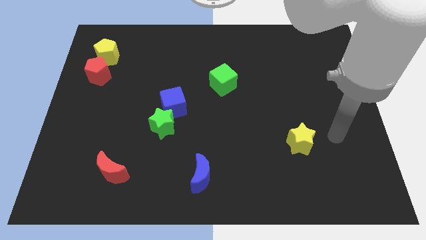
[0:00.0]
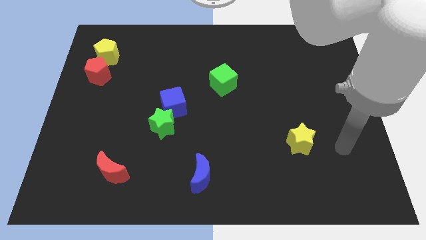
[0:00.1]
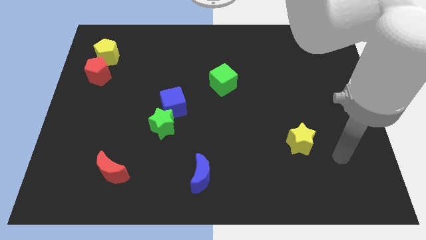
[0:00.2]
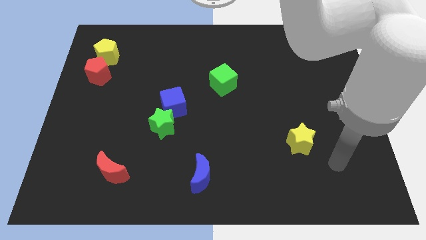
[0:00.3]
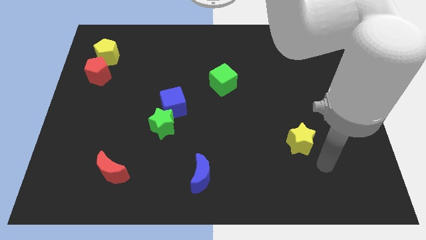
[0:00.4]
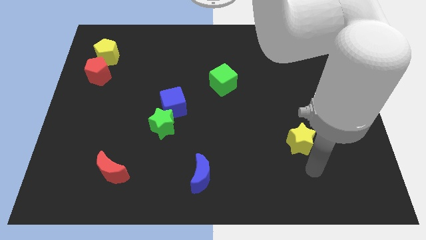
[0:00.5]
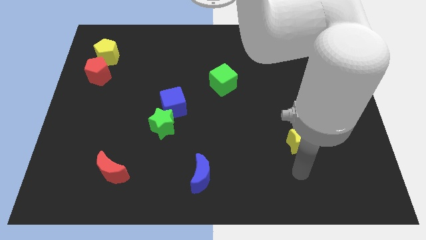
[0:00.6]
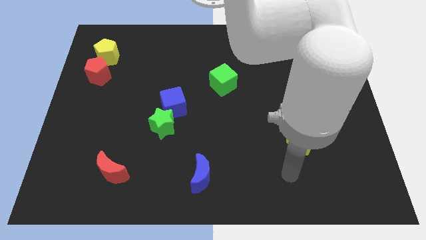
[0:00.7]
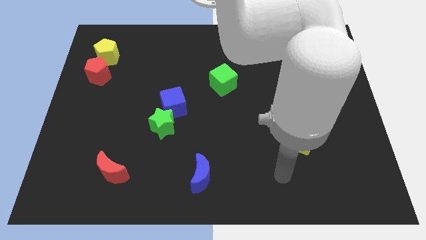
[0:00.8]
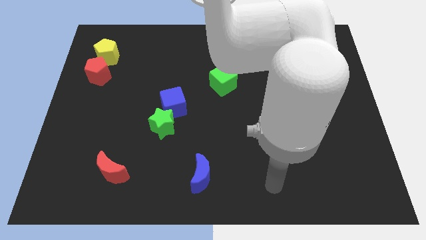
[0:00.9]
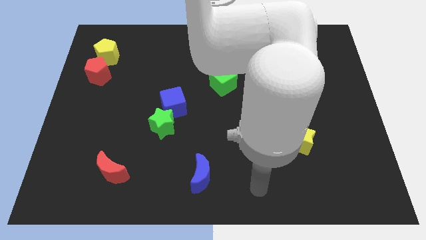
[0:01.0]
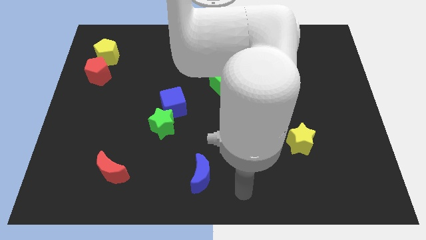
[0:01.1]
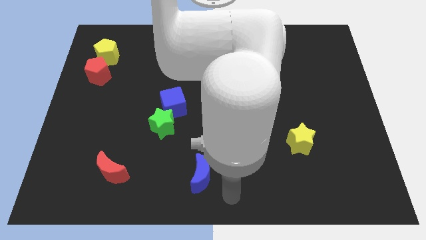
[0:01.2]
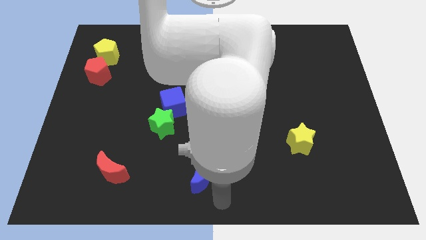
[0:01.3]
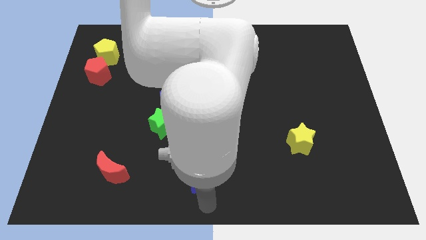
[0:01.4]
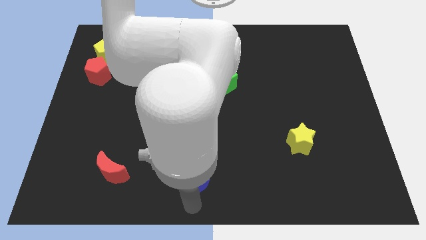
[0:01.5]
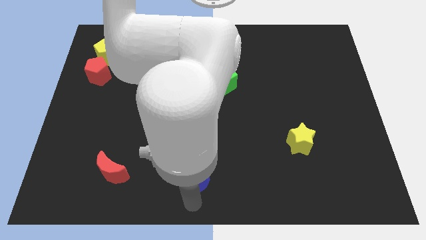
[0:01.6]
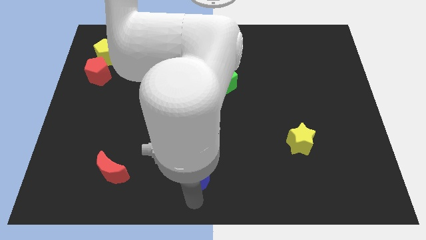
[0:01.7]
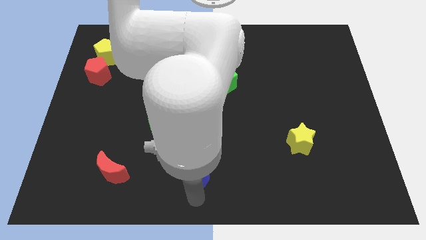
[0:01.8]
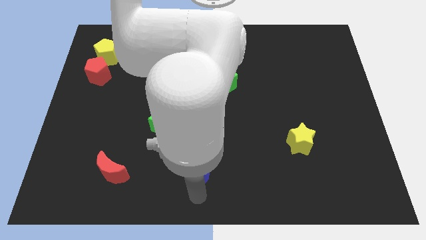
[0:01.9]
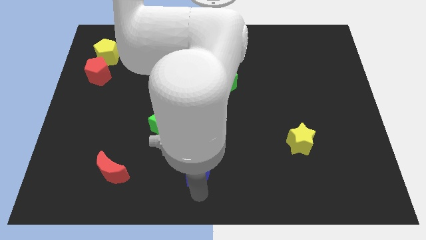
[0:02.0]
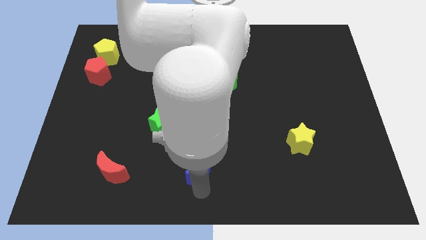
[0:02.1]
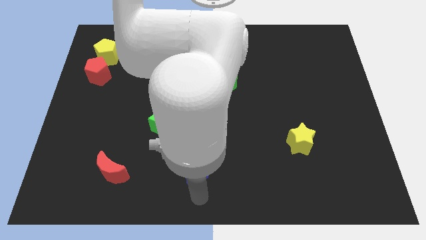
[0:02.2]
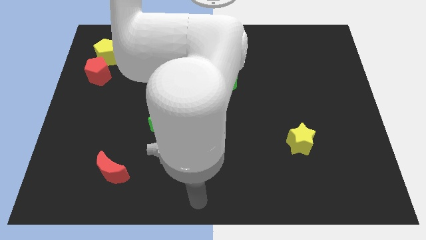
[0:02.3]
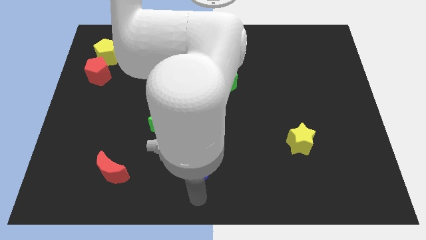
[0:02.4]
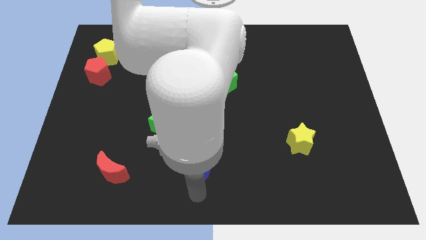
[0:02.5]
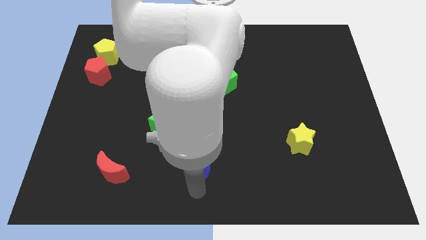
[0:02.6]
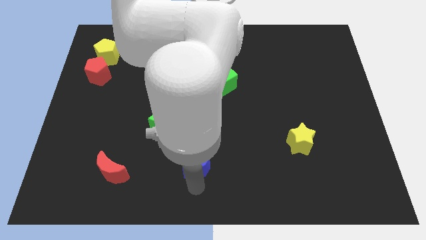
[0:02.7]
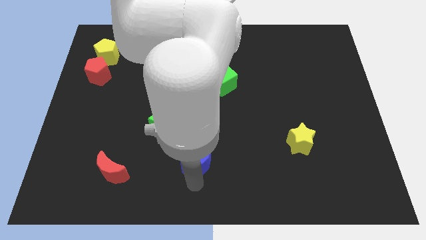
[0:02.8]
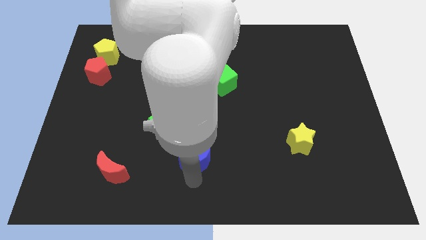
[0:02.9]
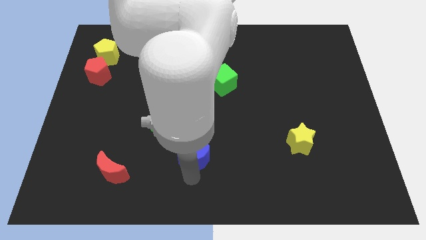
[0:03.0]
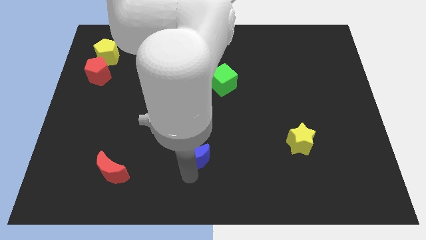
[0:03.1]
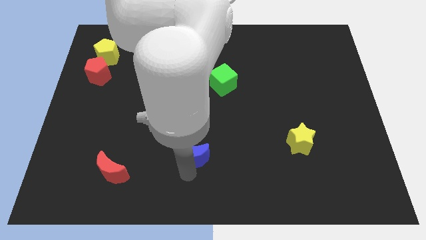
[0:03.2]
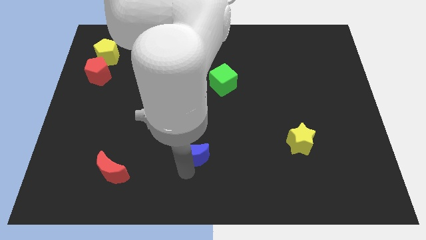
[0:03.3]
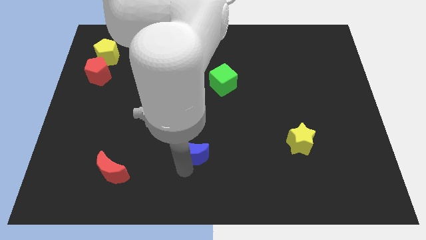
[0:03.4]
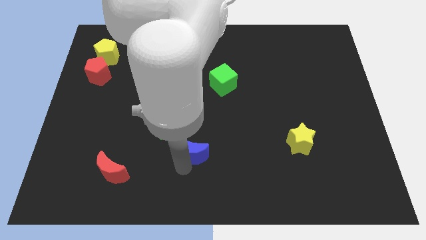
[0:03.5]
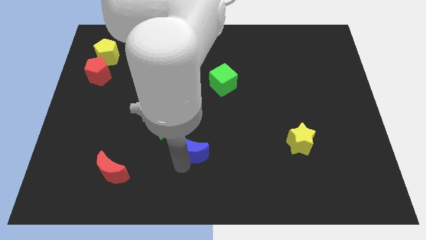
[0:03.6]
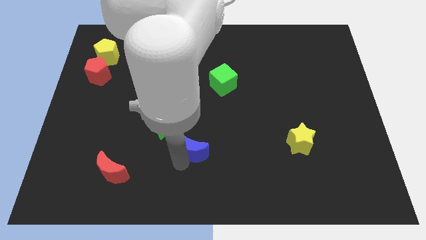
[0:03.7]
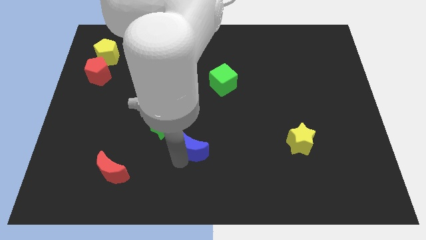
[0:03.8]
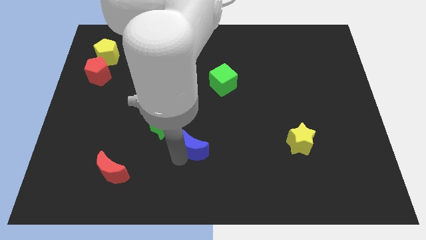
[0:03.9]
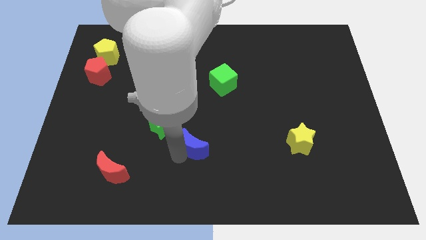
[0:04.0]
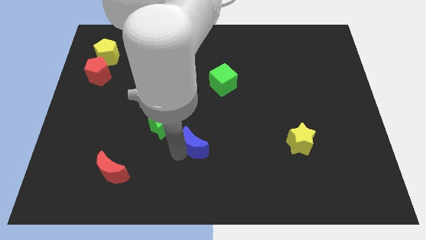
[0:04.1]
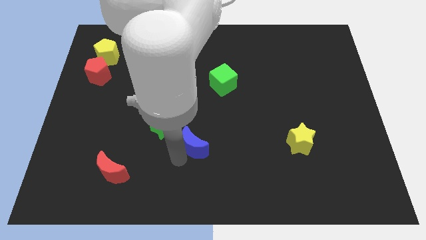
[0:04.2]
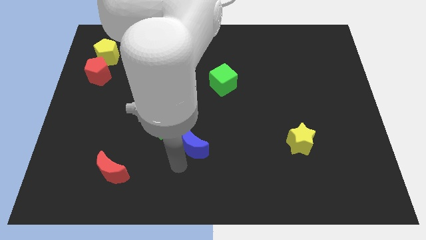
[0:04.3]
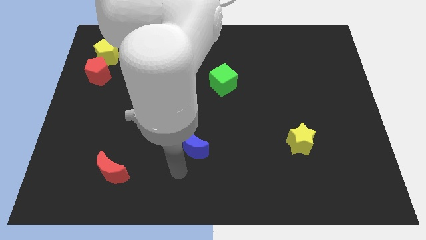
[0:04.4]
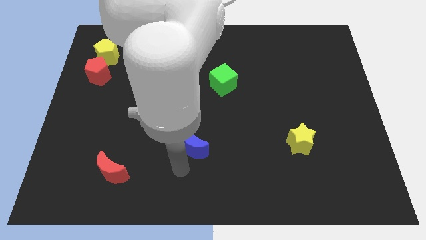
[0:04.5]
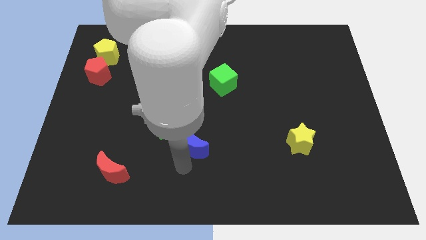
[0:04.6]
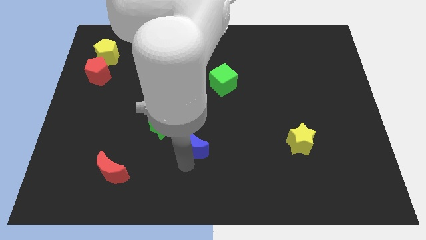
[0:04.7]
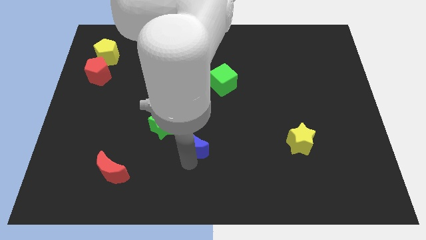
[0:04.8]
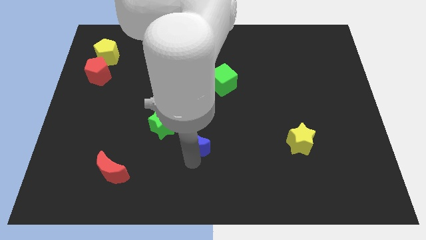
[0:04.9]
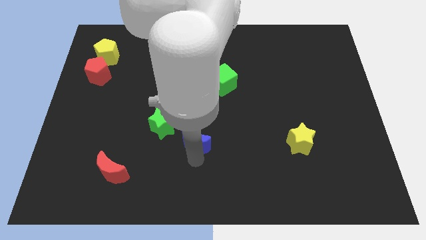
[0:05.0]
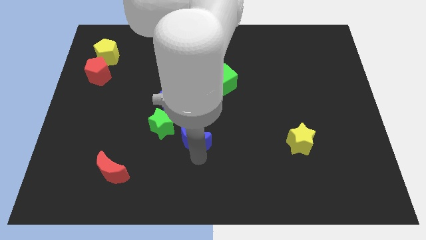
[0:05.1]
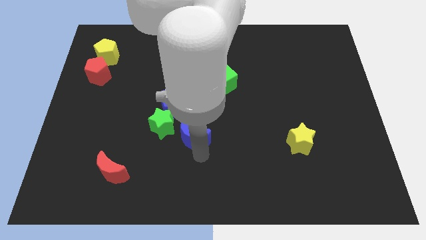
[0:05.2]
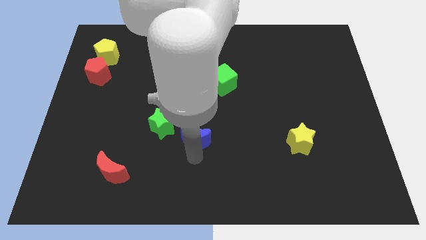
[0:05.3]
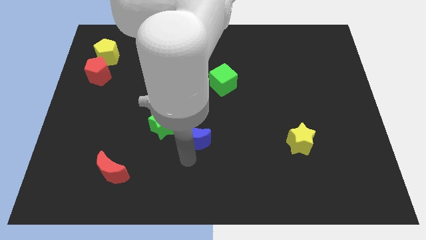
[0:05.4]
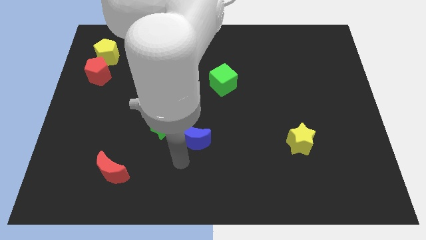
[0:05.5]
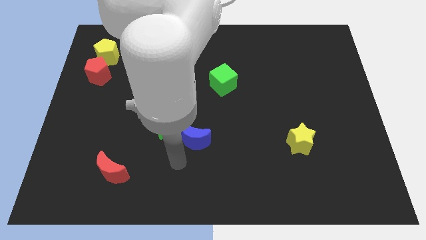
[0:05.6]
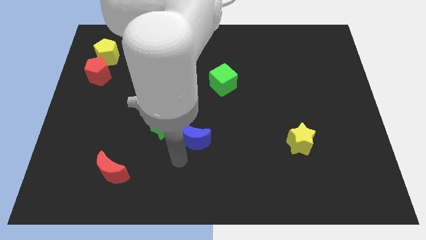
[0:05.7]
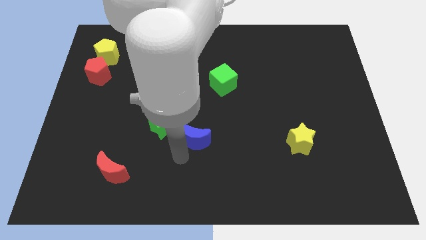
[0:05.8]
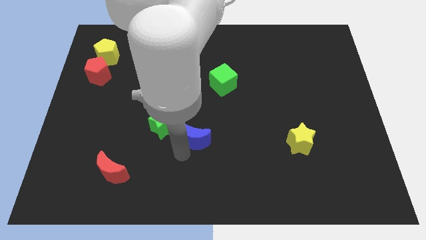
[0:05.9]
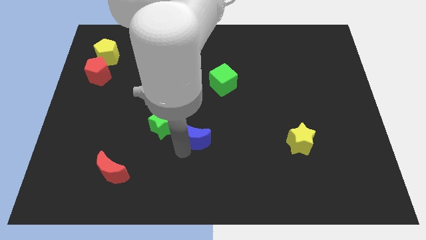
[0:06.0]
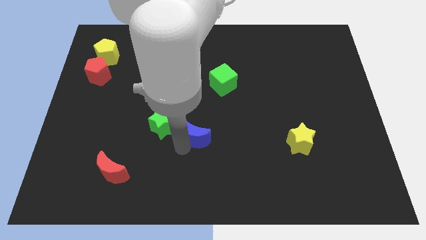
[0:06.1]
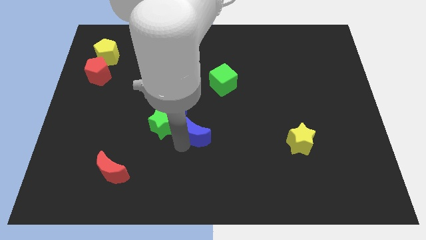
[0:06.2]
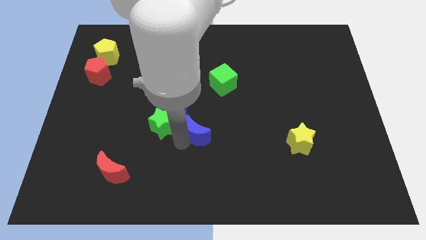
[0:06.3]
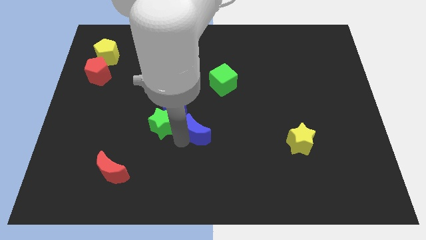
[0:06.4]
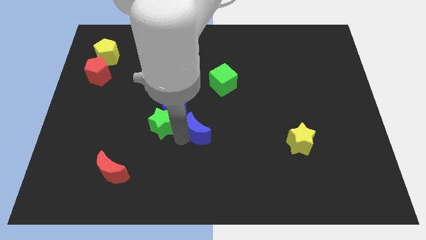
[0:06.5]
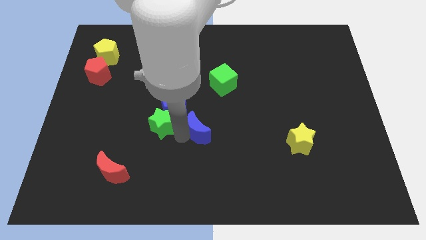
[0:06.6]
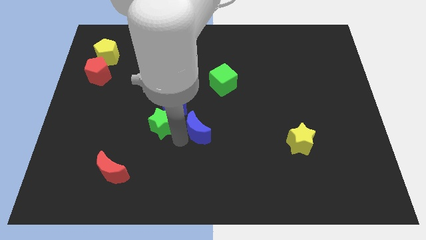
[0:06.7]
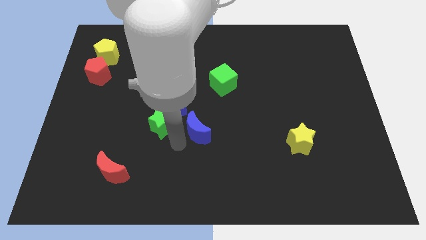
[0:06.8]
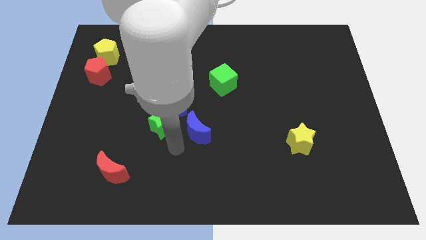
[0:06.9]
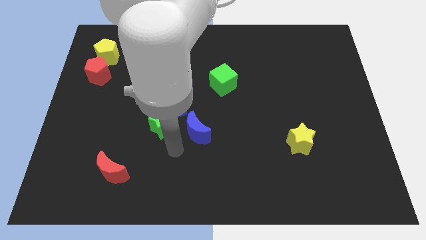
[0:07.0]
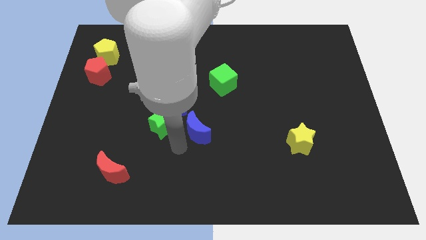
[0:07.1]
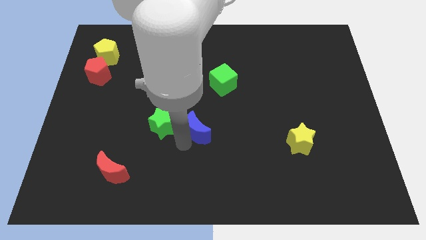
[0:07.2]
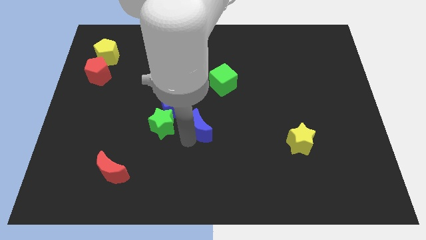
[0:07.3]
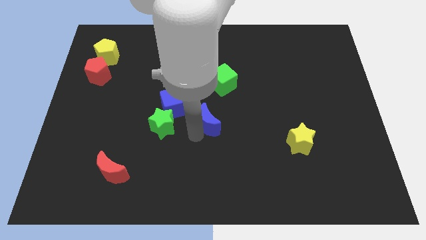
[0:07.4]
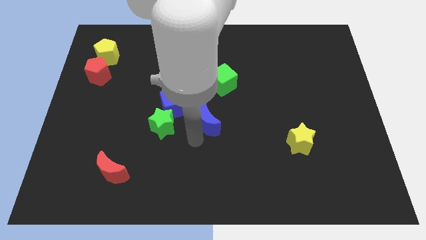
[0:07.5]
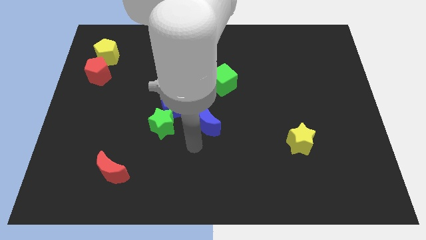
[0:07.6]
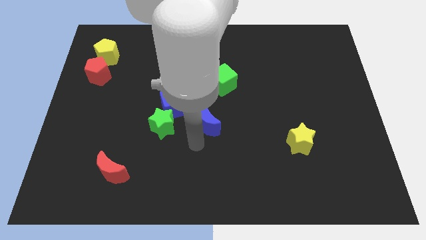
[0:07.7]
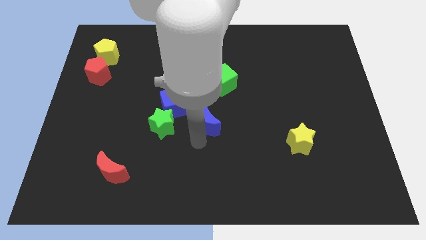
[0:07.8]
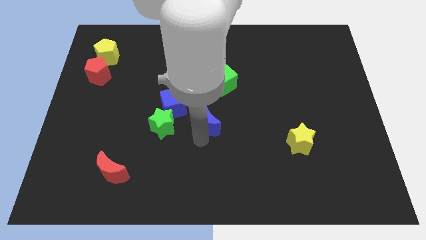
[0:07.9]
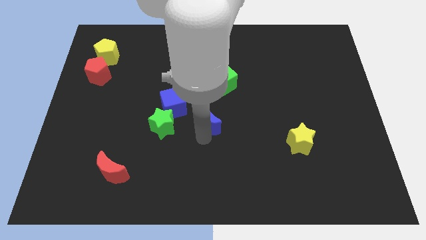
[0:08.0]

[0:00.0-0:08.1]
move the blue moon to the right of the blue cube
